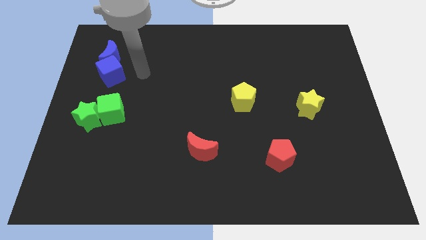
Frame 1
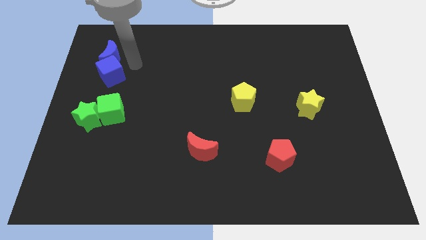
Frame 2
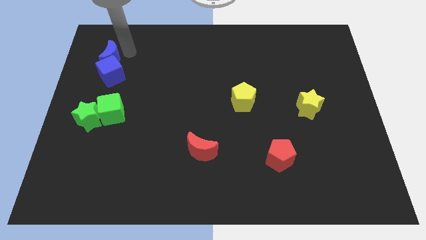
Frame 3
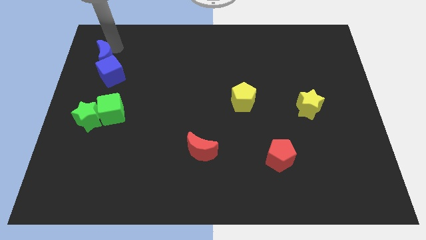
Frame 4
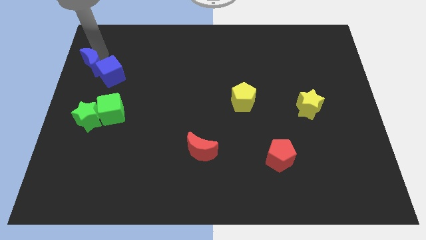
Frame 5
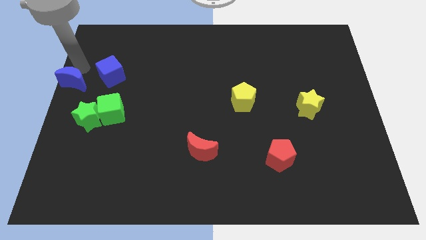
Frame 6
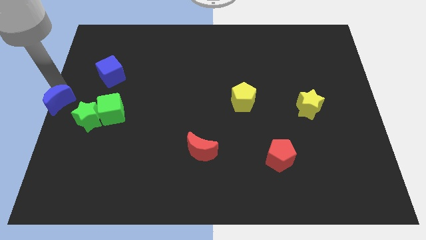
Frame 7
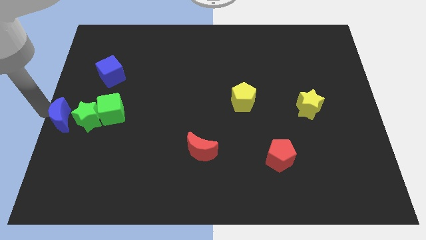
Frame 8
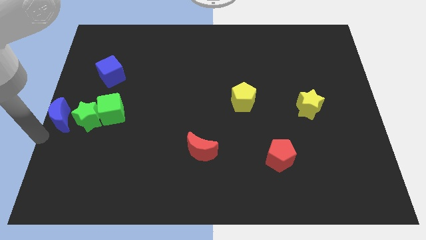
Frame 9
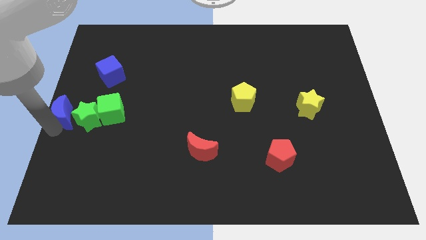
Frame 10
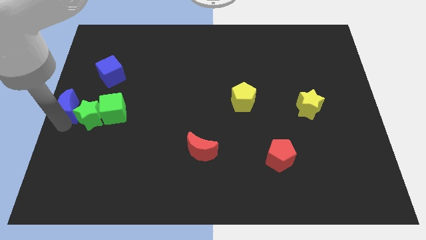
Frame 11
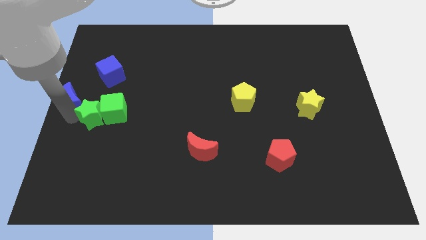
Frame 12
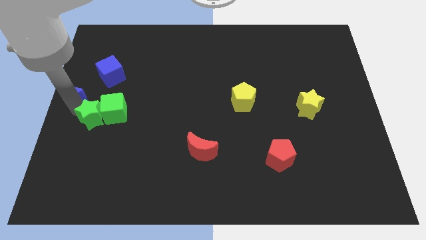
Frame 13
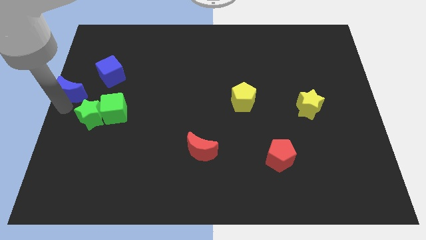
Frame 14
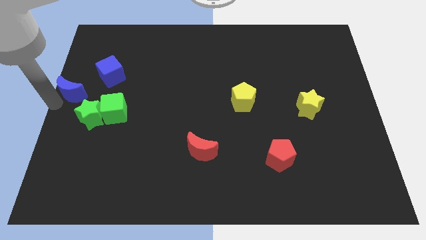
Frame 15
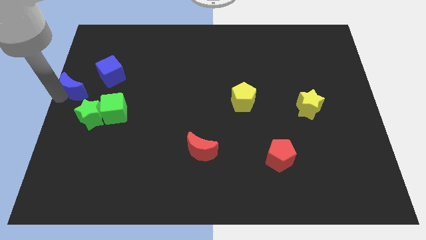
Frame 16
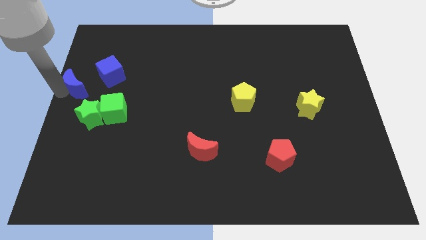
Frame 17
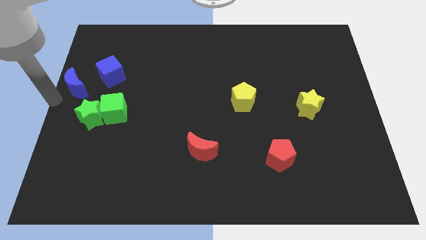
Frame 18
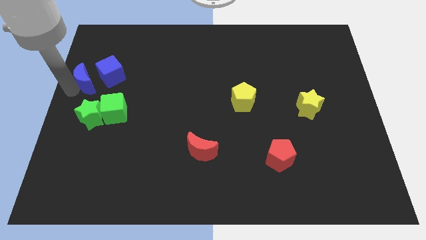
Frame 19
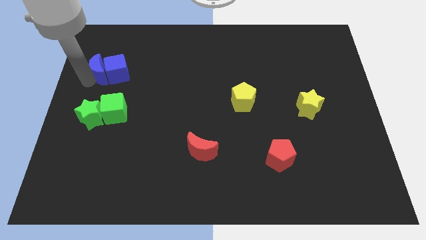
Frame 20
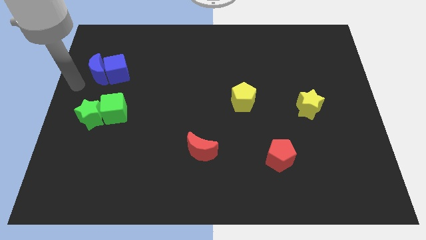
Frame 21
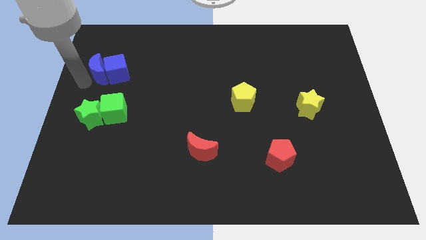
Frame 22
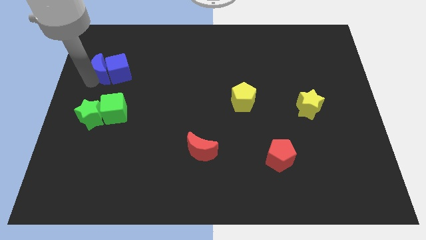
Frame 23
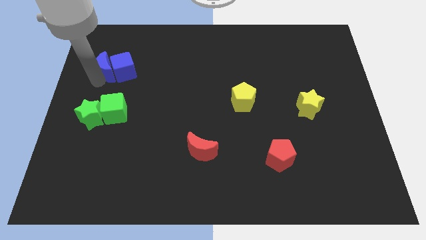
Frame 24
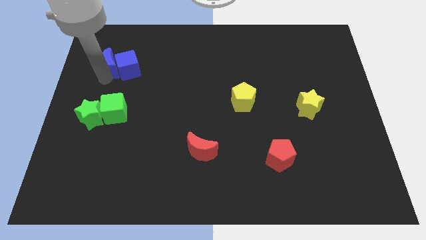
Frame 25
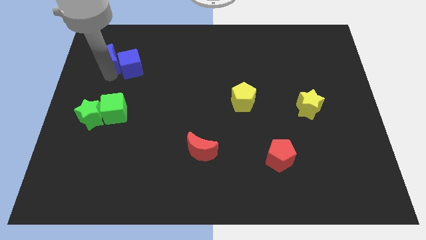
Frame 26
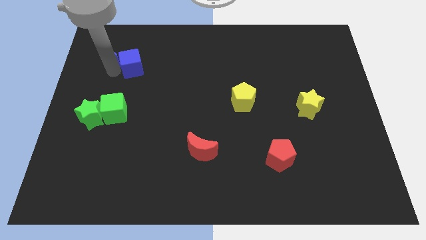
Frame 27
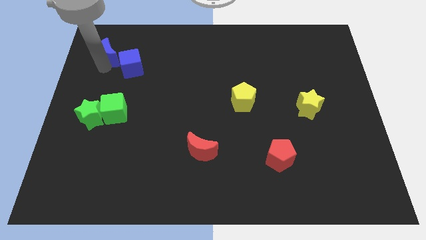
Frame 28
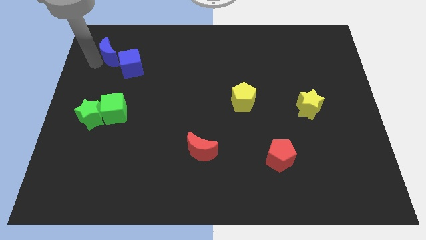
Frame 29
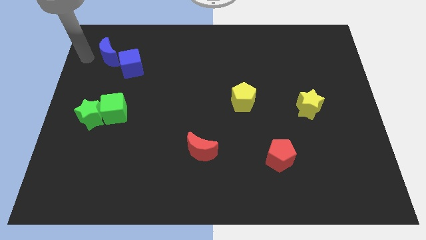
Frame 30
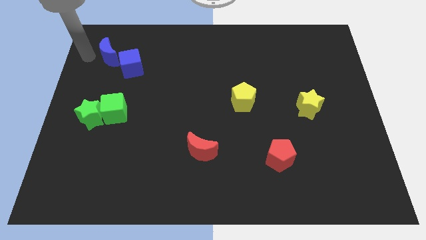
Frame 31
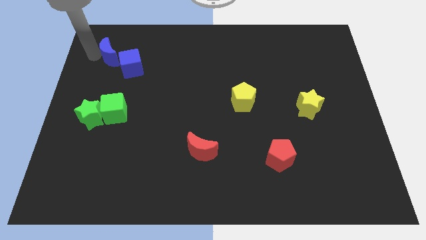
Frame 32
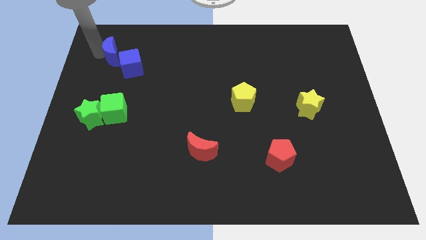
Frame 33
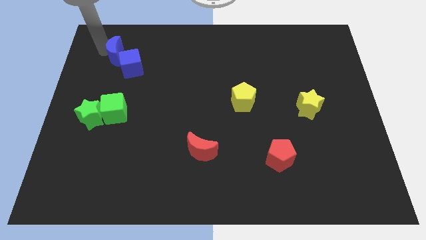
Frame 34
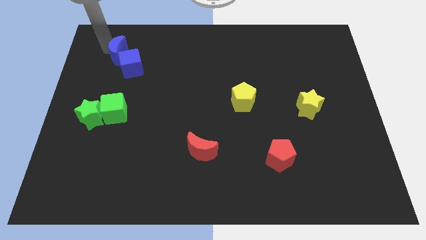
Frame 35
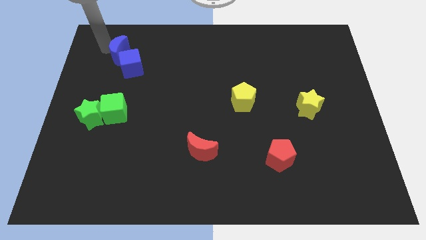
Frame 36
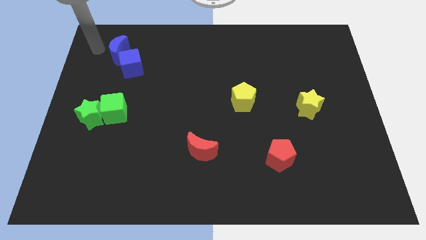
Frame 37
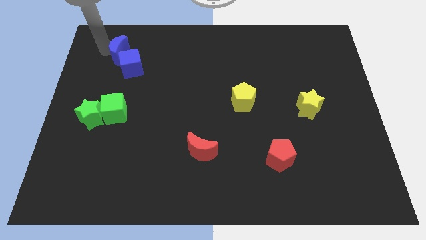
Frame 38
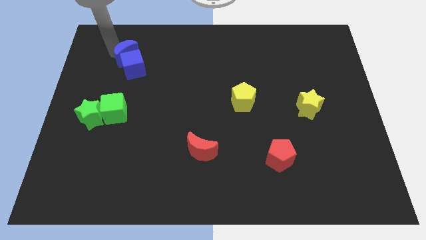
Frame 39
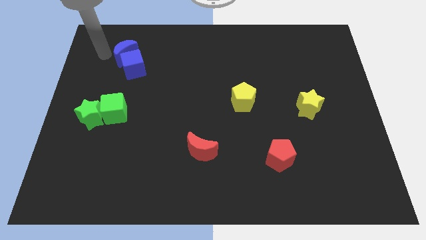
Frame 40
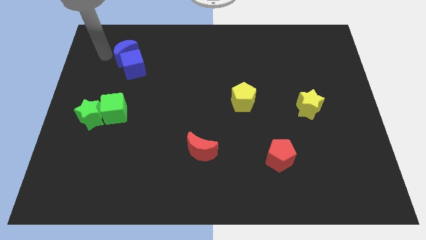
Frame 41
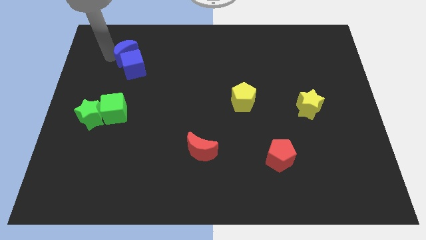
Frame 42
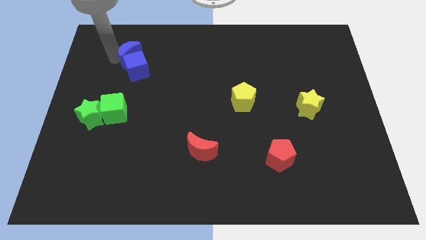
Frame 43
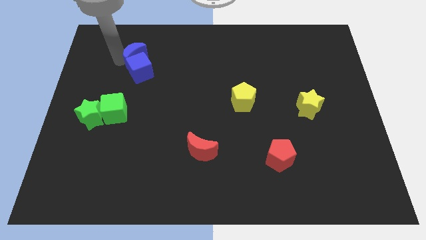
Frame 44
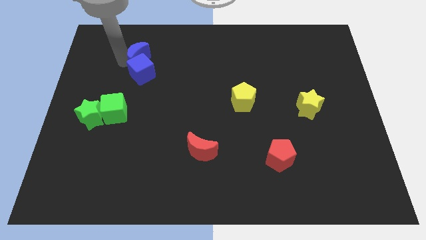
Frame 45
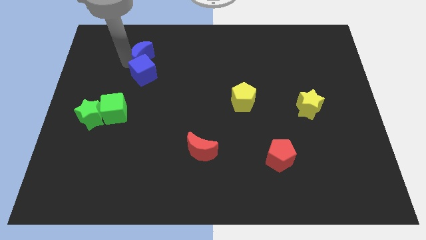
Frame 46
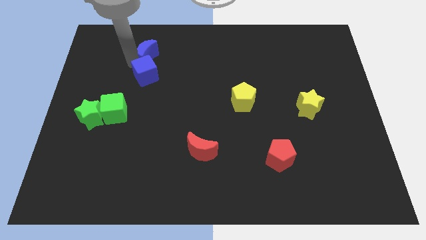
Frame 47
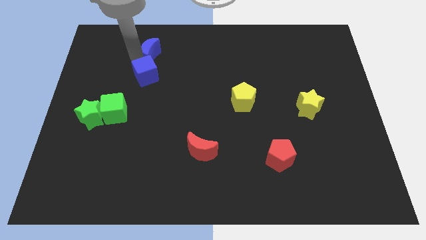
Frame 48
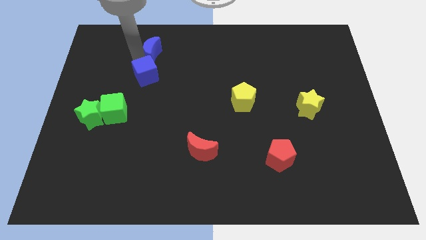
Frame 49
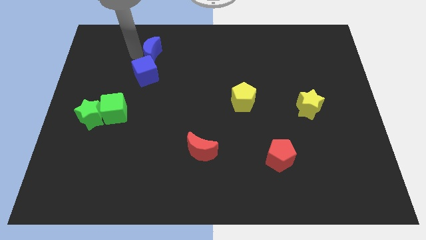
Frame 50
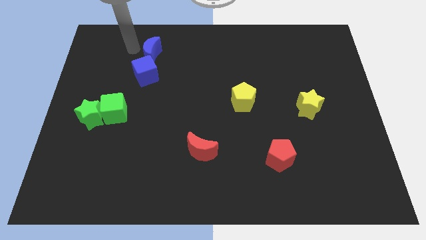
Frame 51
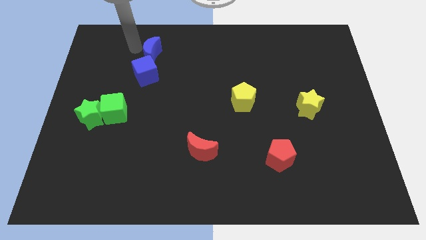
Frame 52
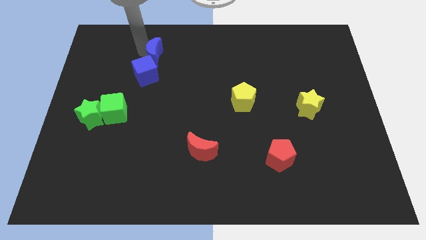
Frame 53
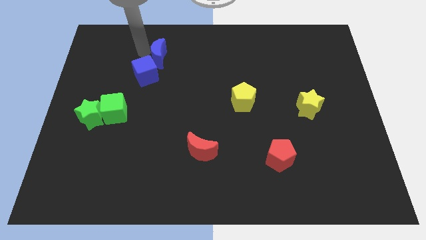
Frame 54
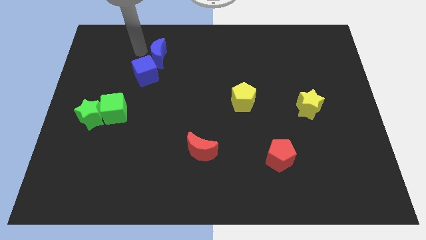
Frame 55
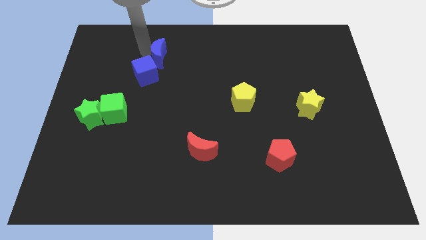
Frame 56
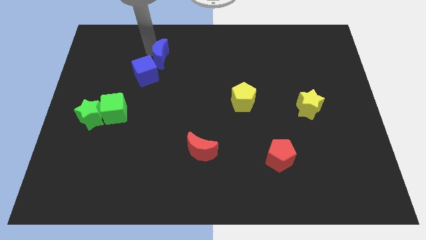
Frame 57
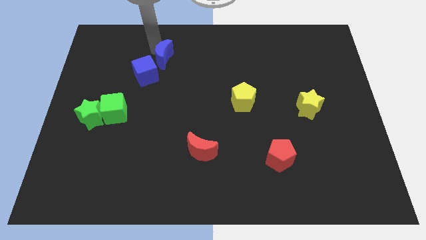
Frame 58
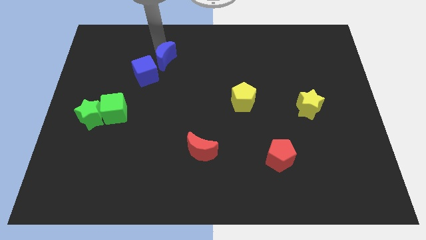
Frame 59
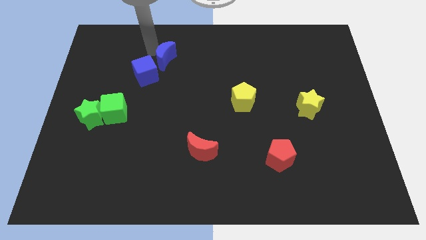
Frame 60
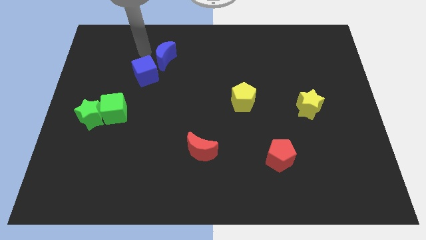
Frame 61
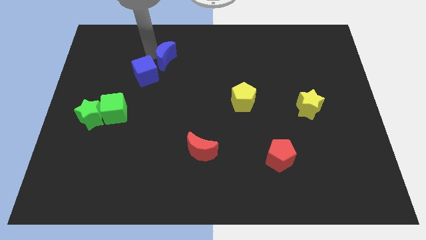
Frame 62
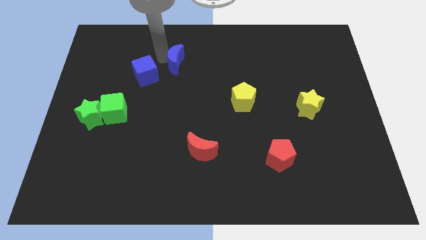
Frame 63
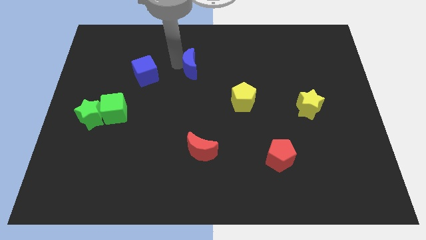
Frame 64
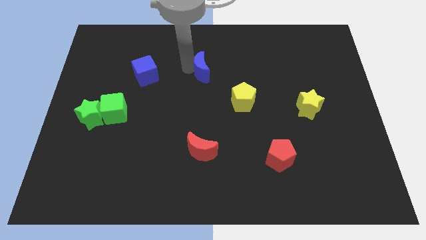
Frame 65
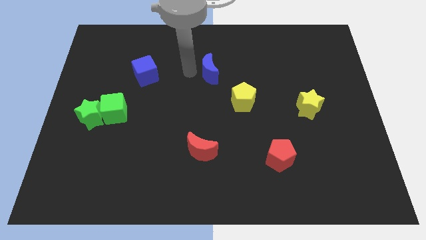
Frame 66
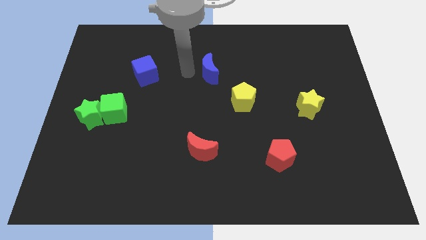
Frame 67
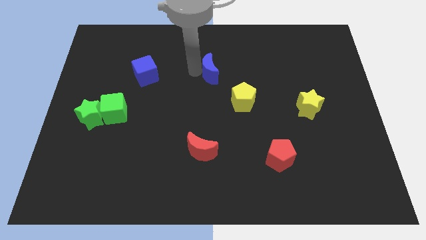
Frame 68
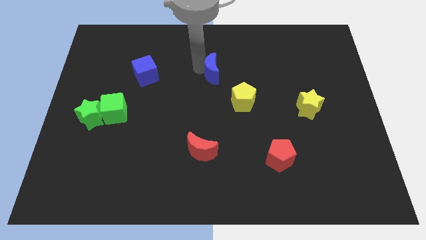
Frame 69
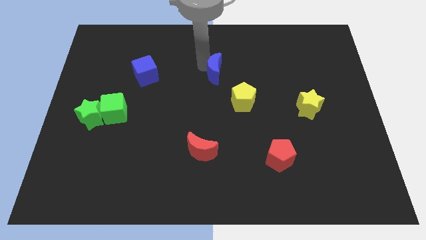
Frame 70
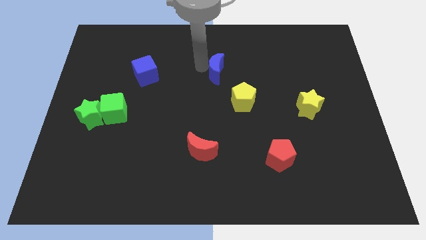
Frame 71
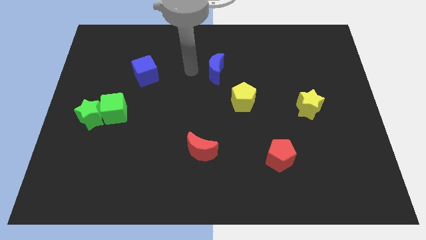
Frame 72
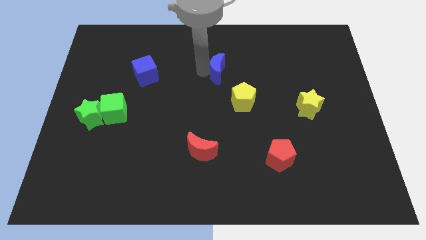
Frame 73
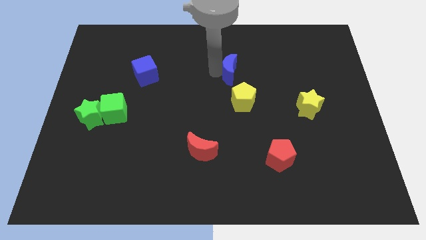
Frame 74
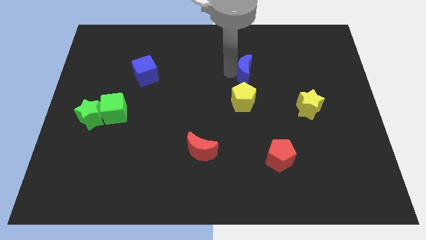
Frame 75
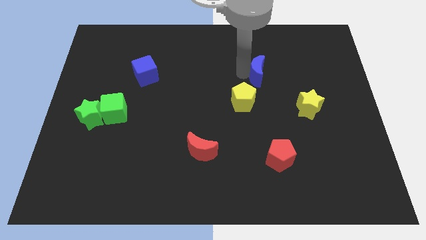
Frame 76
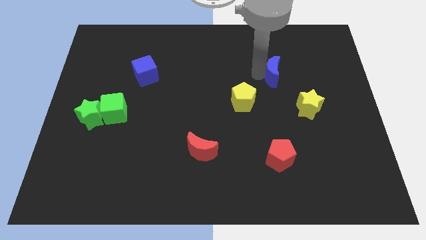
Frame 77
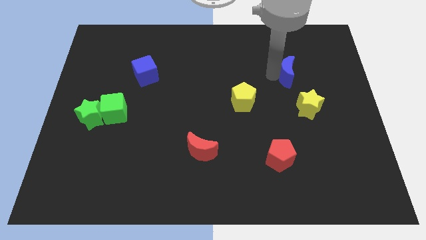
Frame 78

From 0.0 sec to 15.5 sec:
slide the blue moon above the yellow star

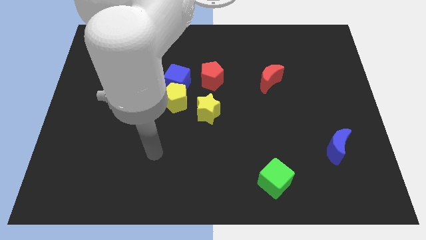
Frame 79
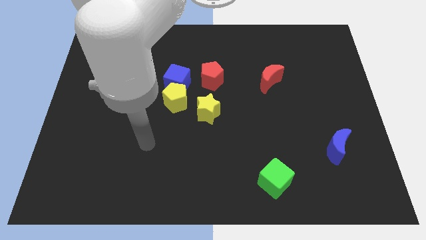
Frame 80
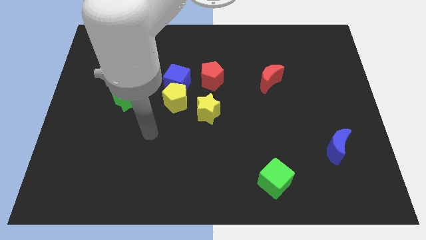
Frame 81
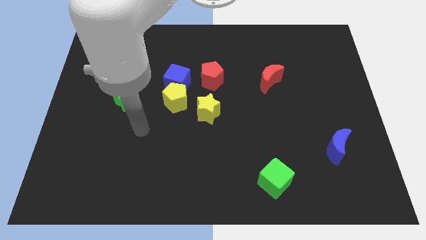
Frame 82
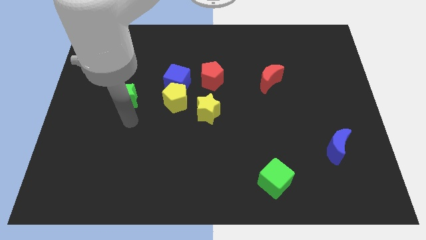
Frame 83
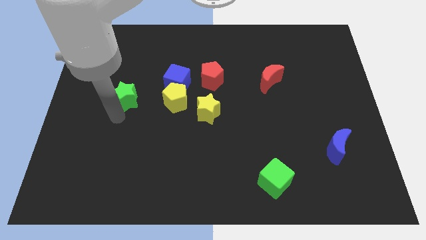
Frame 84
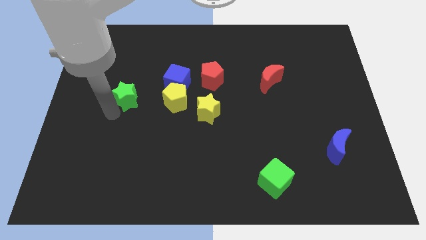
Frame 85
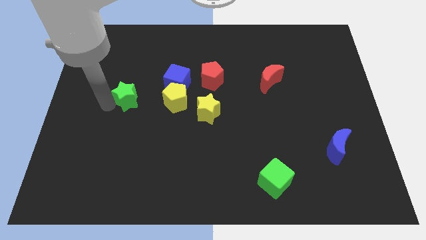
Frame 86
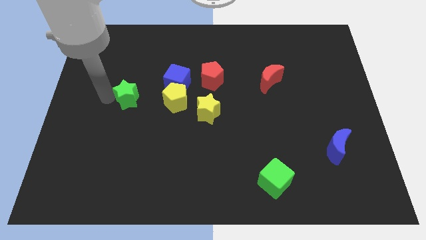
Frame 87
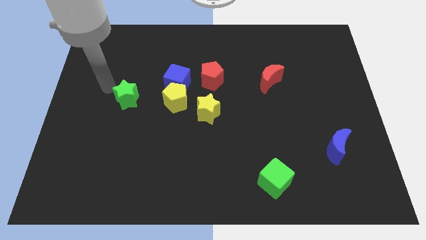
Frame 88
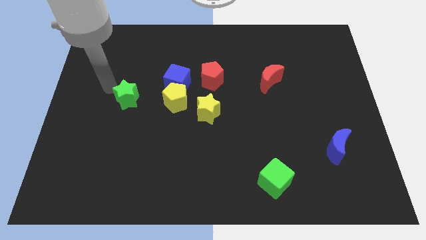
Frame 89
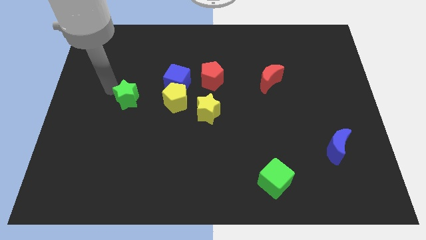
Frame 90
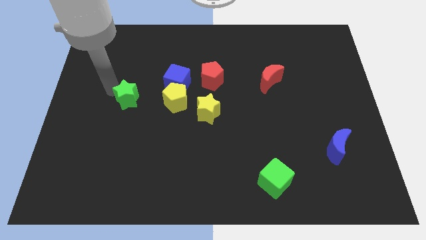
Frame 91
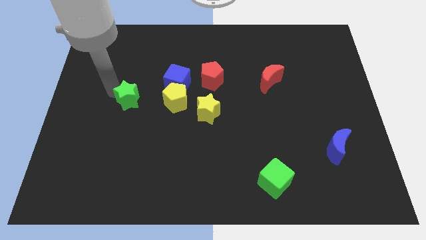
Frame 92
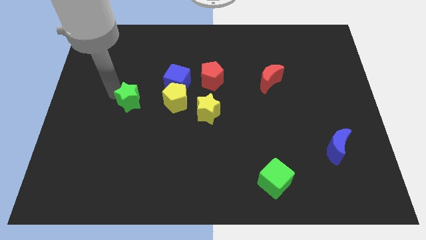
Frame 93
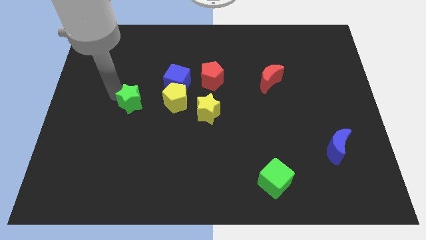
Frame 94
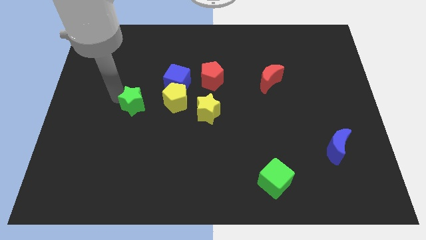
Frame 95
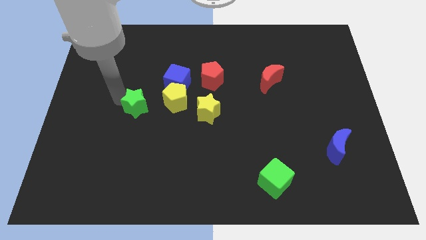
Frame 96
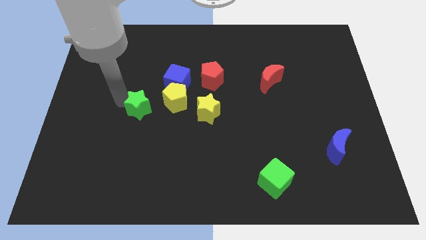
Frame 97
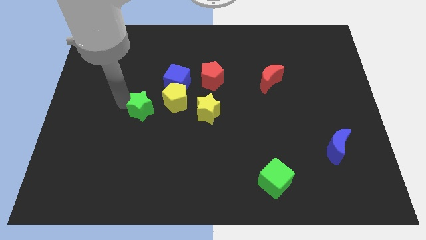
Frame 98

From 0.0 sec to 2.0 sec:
slide the green star just left of the yellow star
